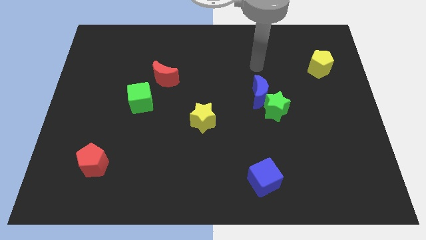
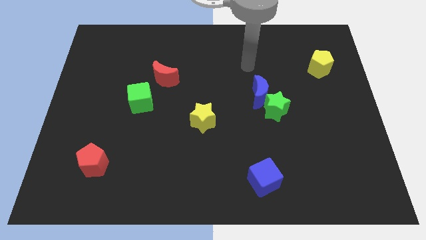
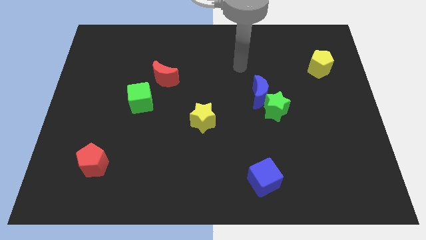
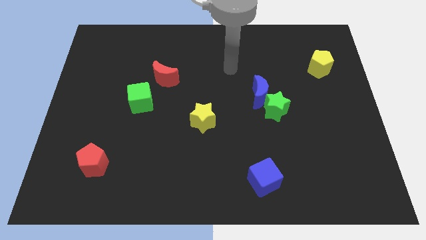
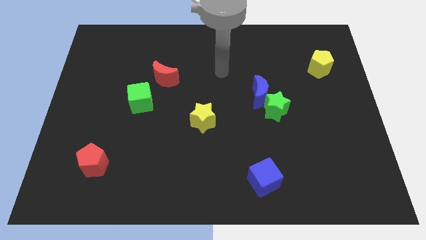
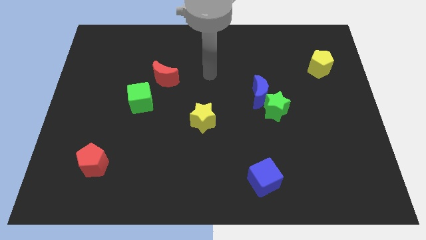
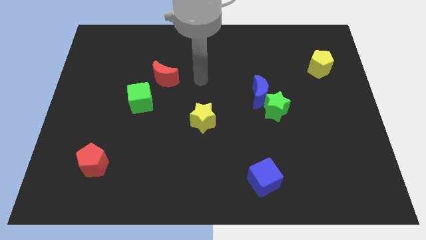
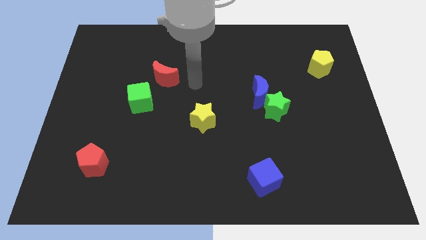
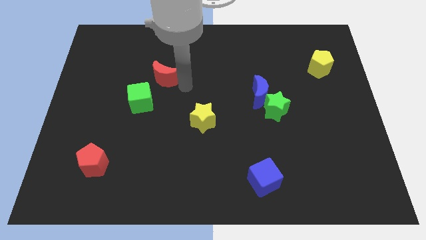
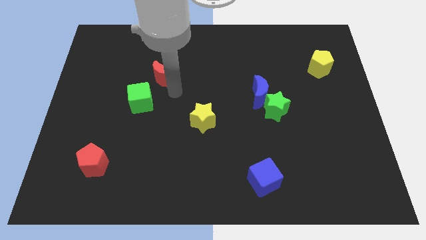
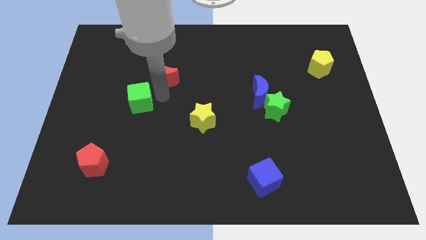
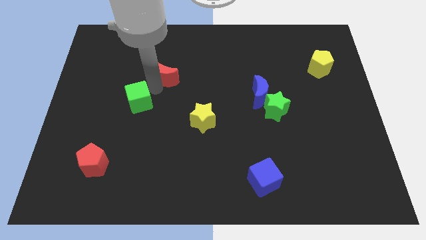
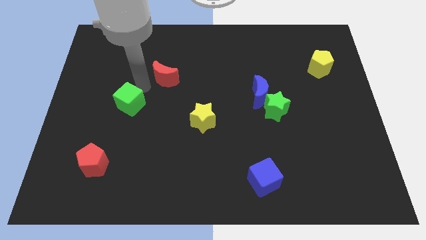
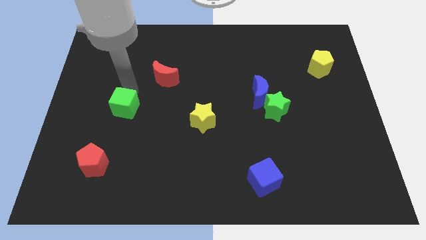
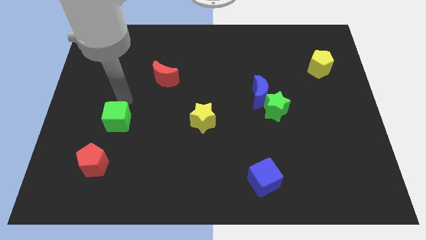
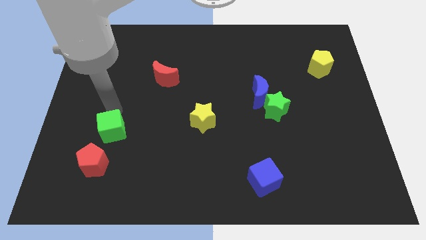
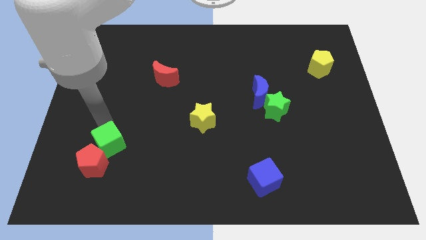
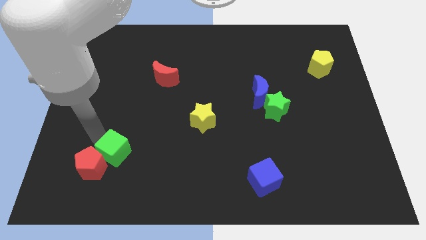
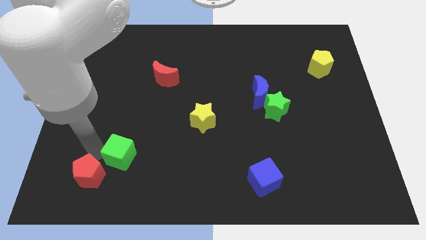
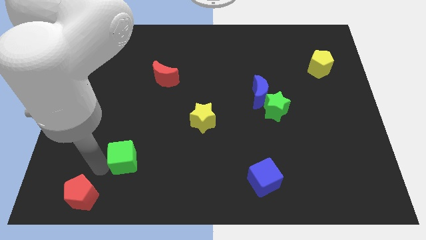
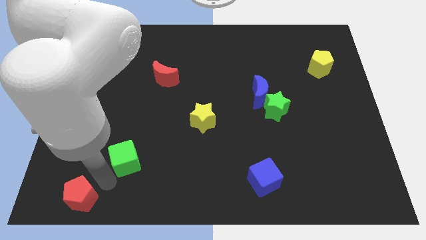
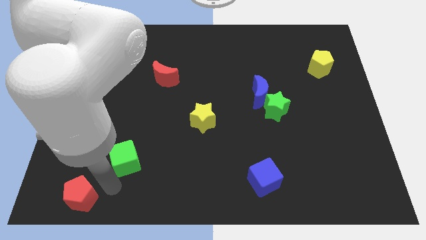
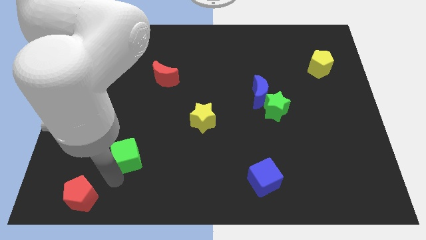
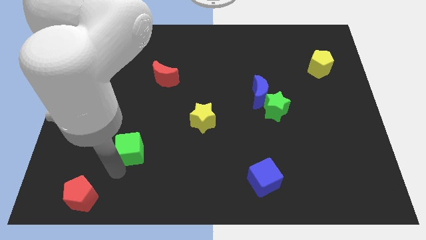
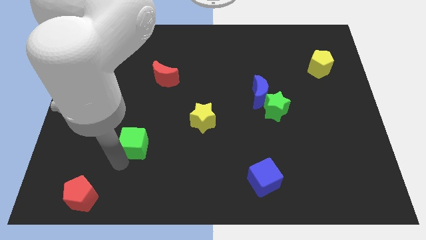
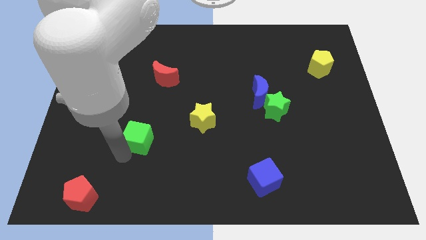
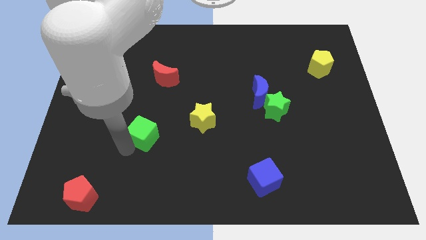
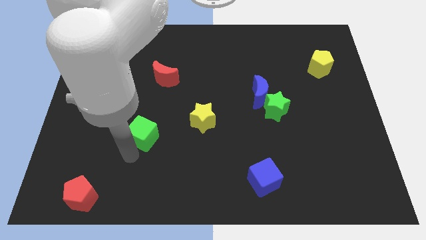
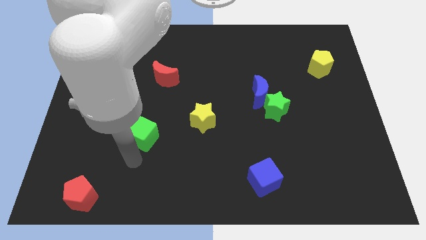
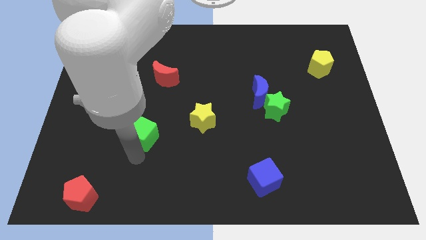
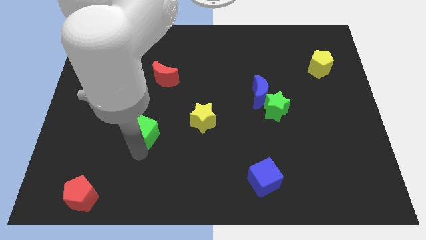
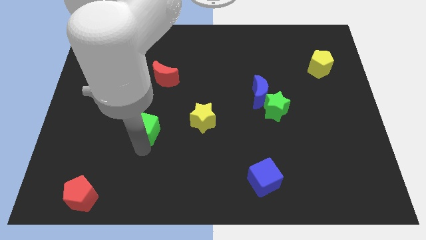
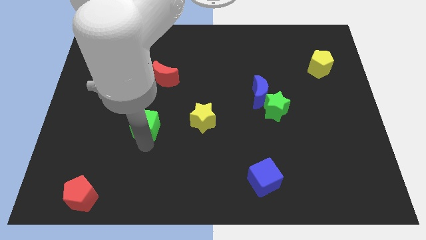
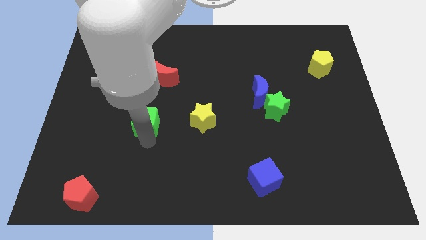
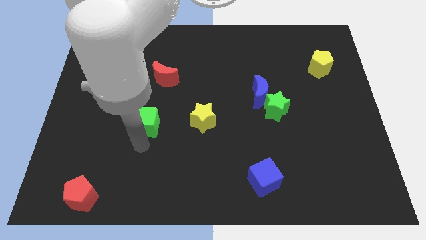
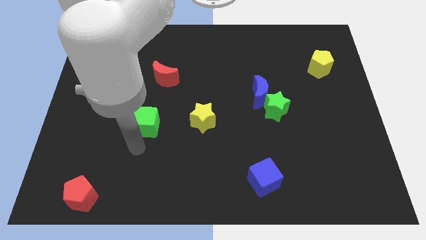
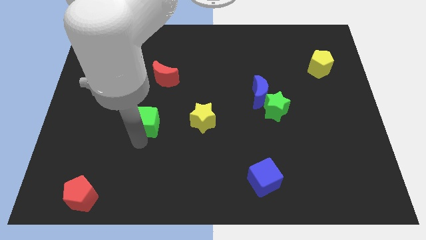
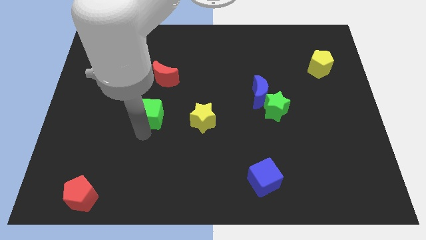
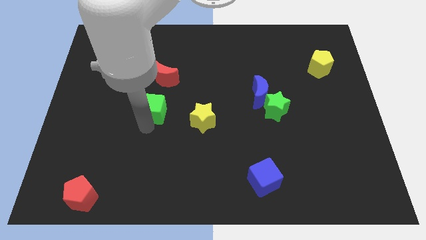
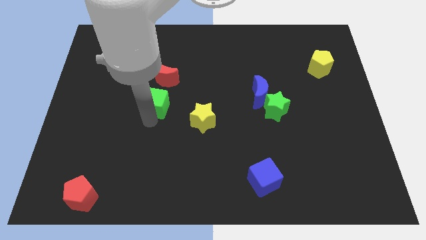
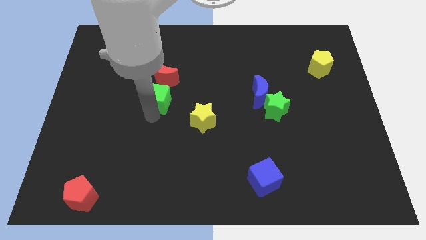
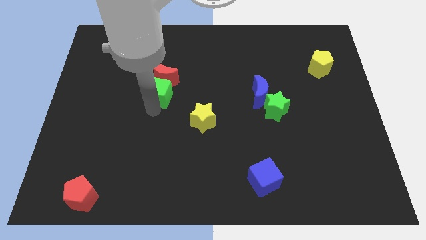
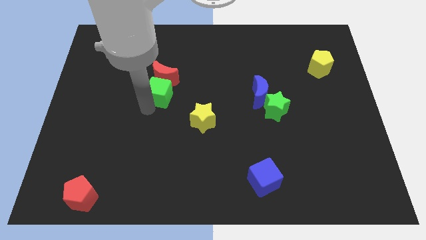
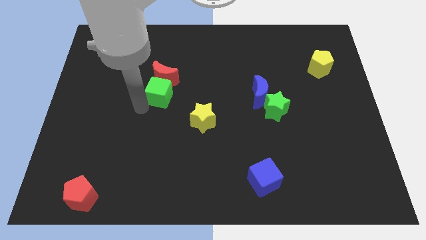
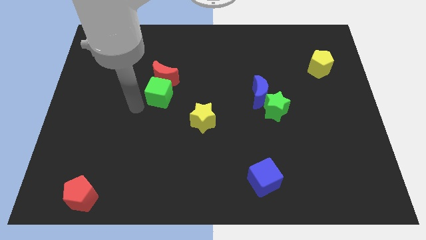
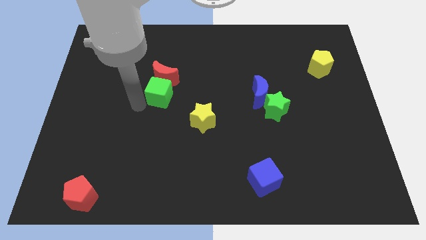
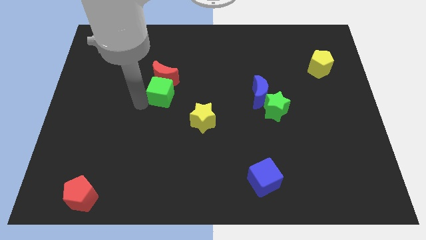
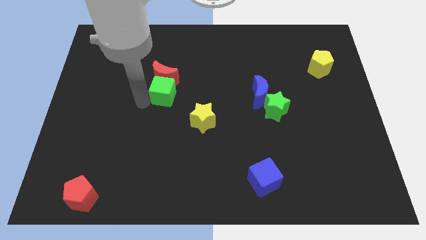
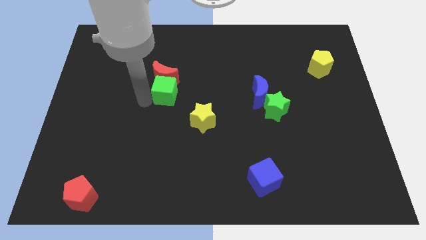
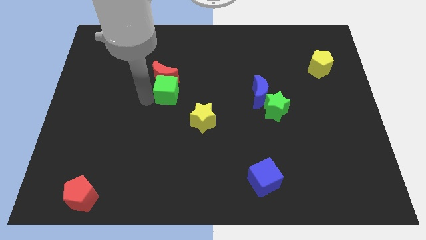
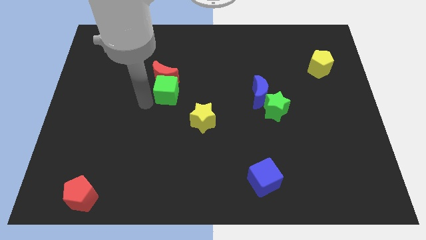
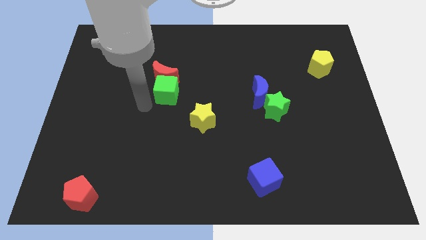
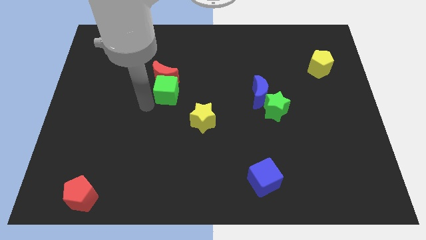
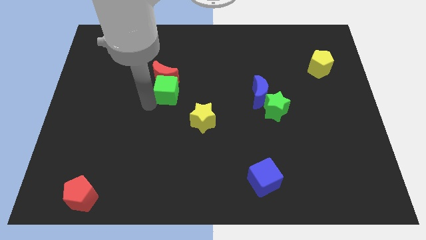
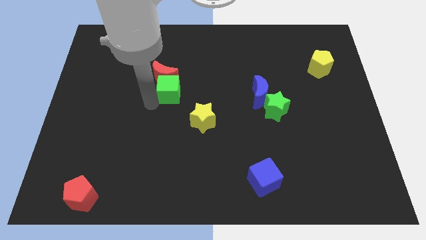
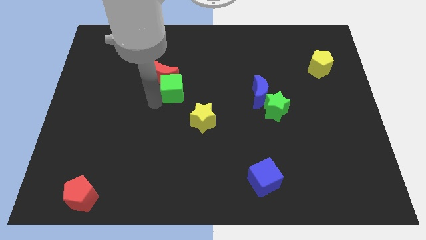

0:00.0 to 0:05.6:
push the green cube somewhat diagonally upwards and to the right

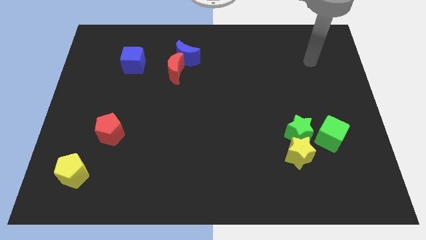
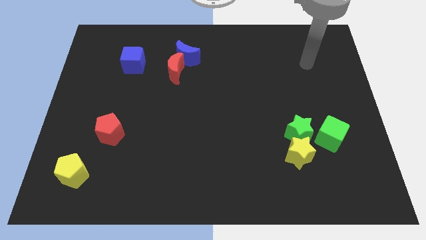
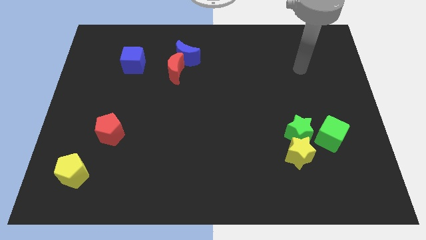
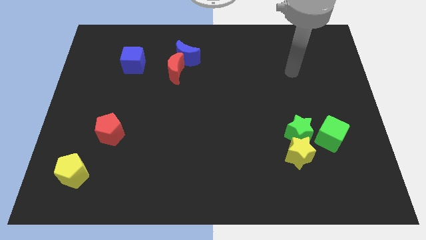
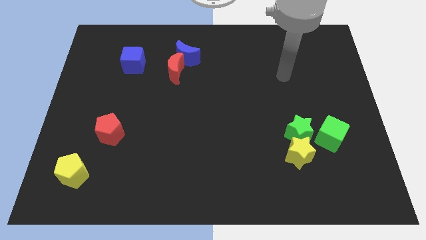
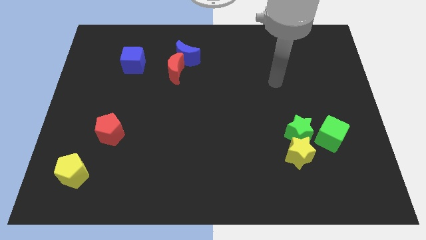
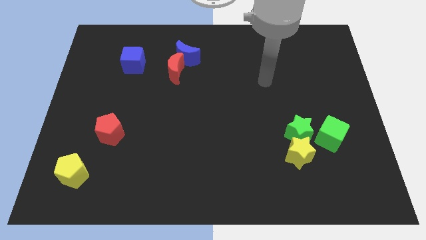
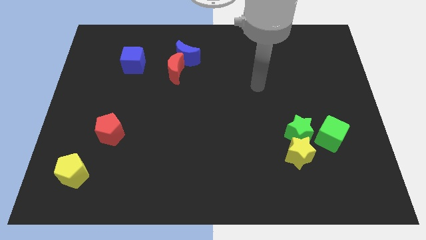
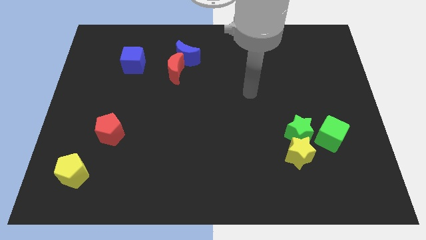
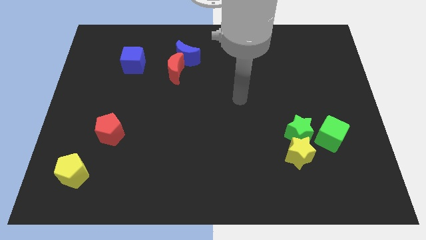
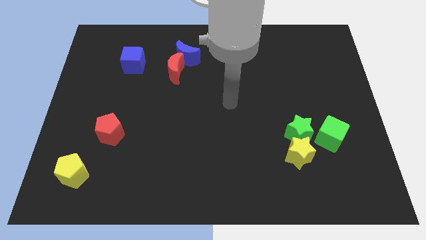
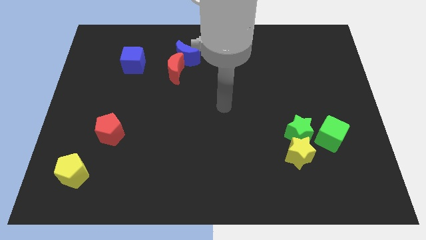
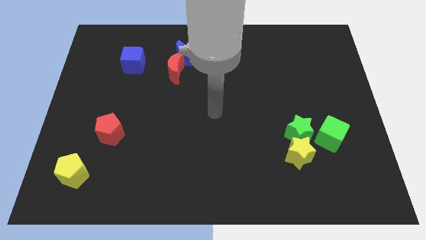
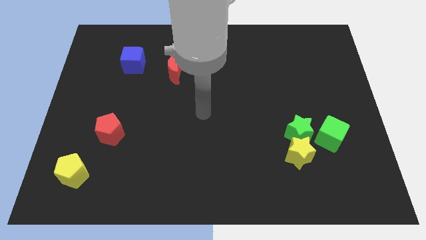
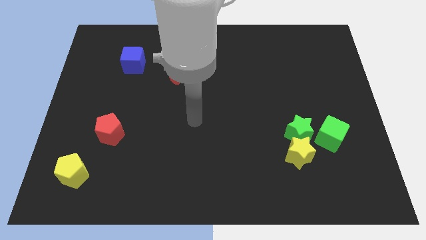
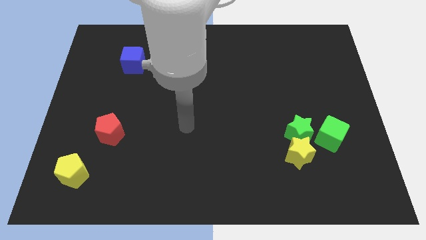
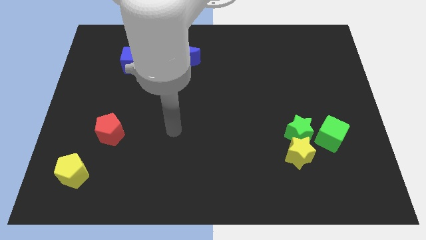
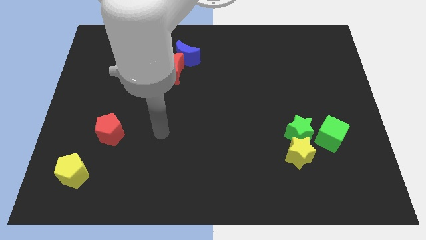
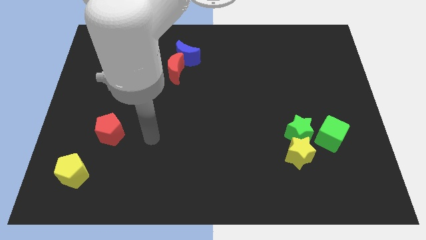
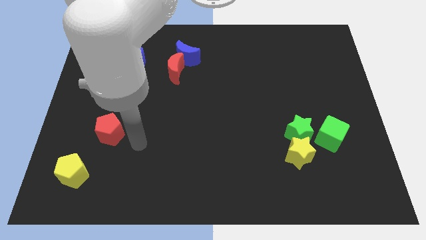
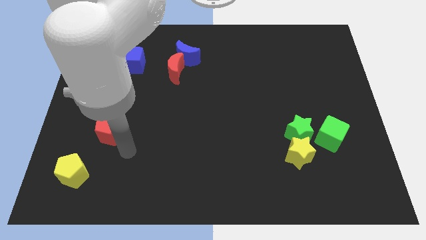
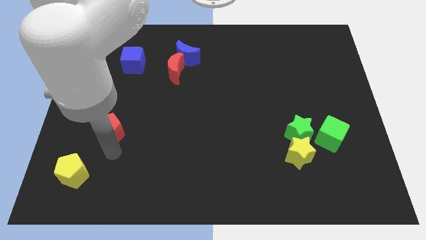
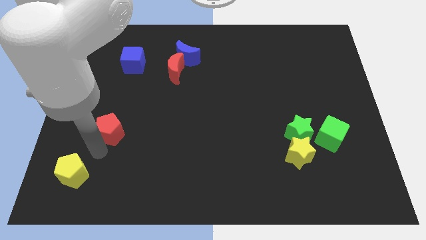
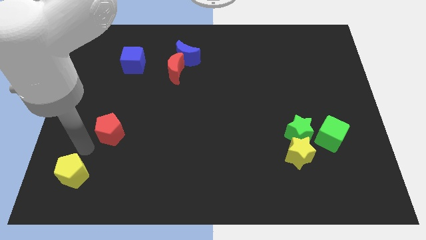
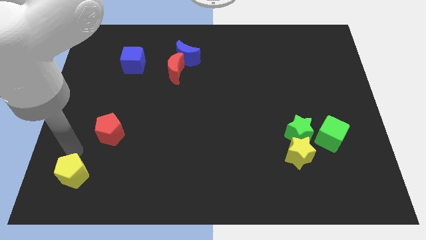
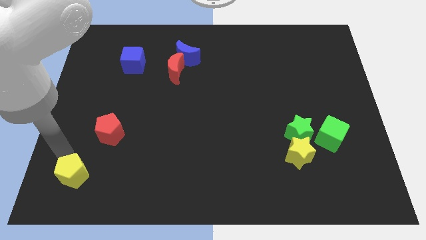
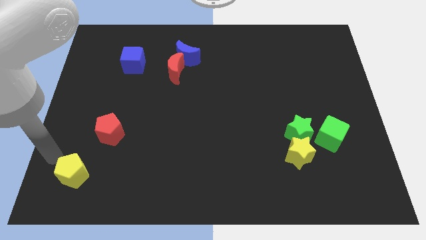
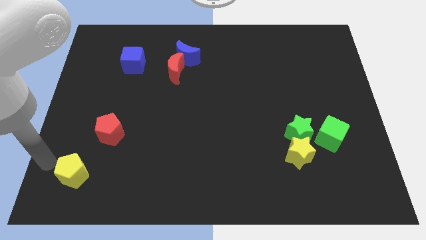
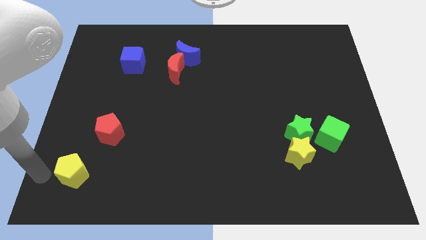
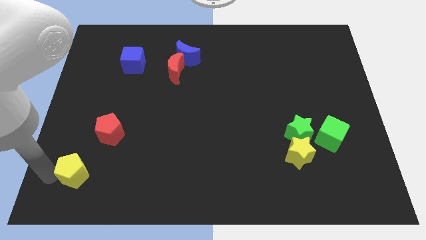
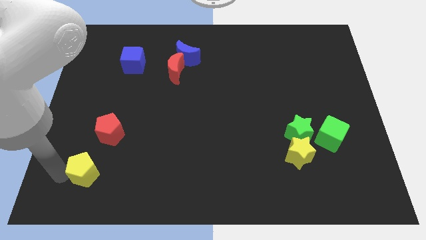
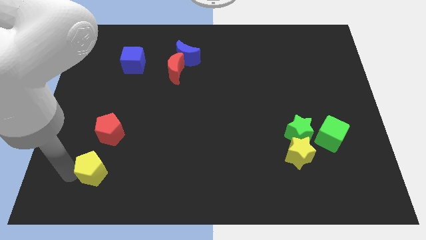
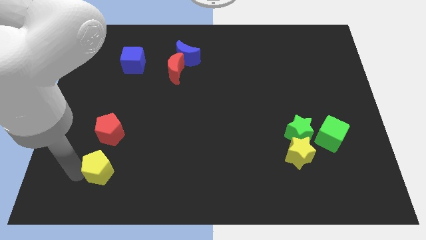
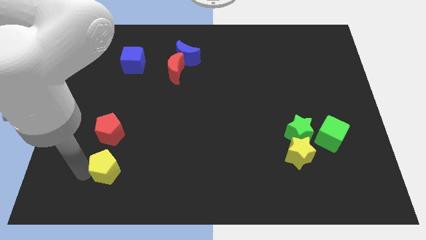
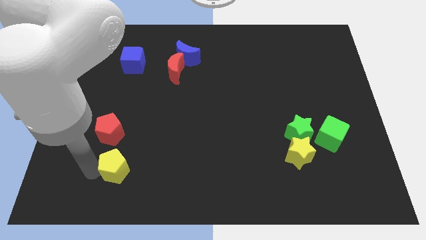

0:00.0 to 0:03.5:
move the yellow pentagon a little bit right
